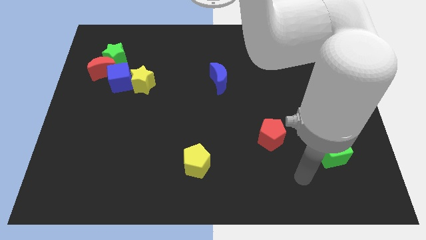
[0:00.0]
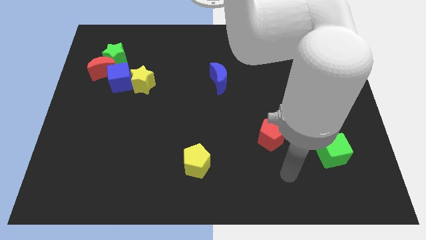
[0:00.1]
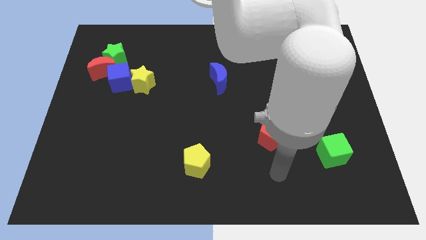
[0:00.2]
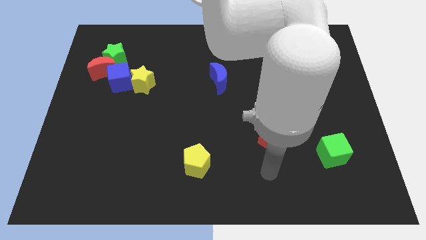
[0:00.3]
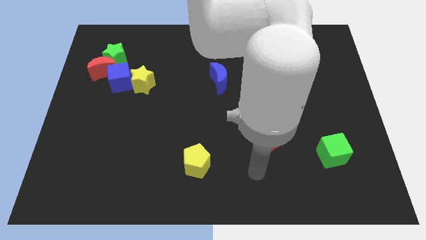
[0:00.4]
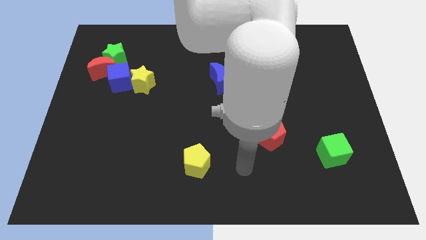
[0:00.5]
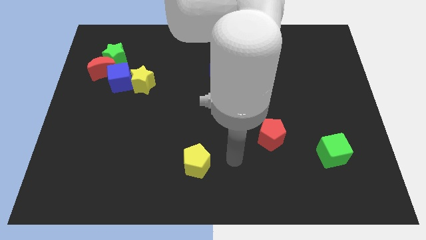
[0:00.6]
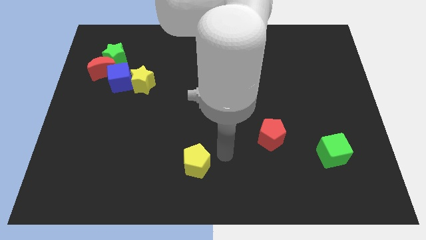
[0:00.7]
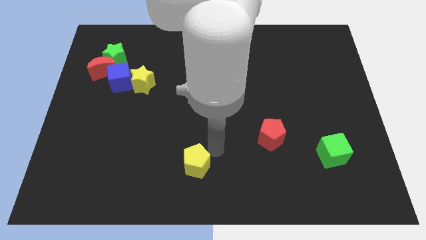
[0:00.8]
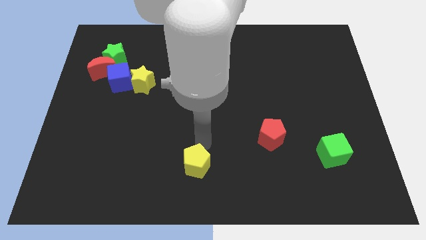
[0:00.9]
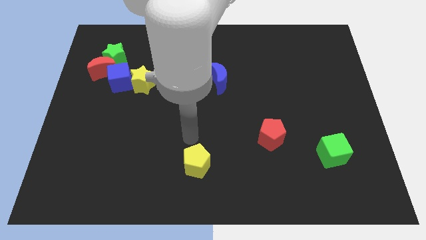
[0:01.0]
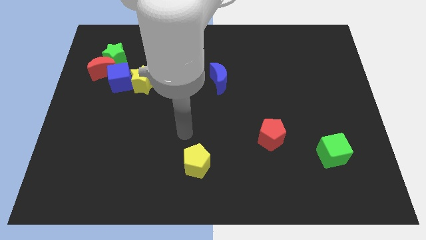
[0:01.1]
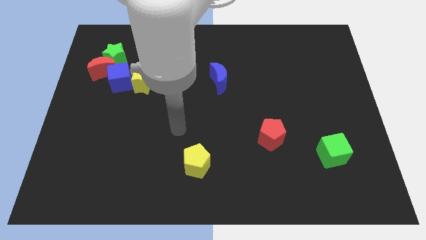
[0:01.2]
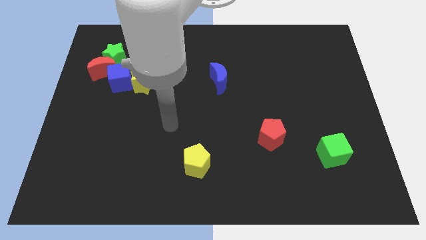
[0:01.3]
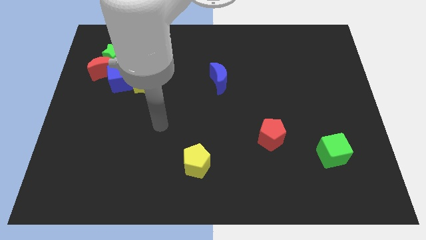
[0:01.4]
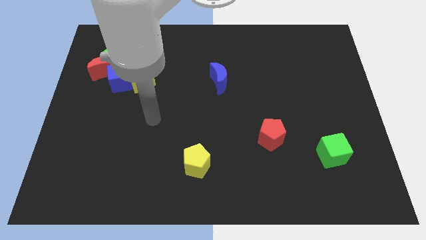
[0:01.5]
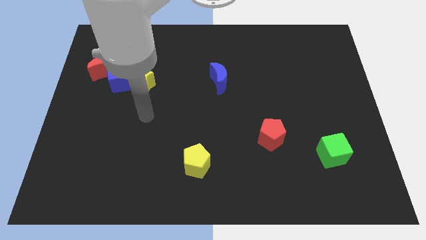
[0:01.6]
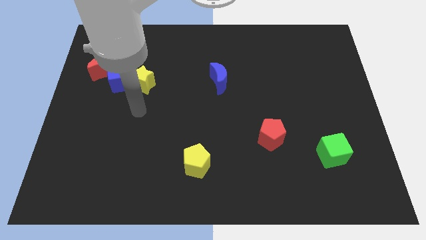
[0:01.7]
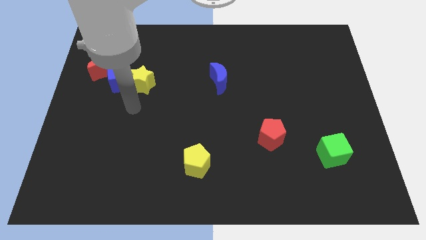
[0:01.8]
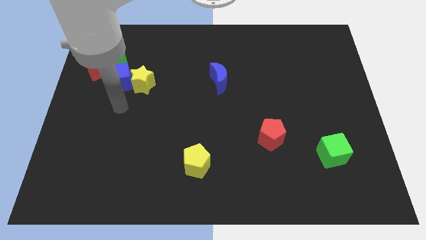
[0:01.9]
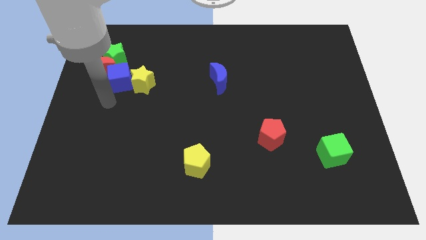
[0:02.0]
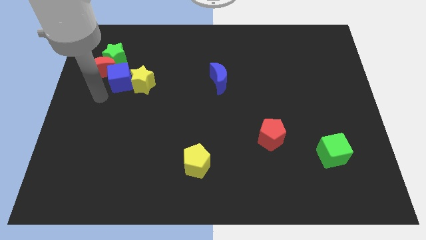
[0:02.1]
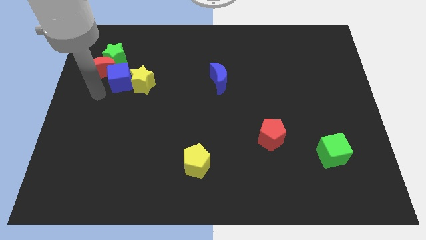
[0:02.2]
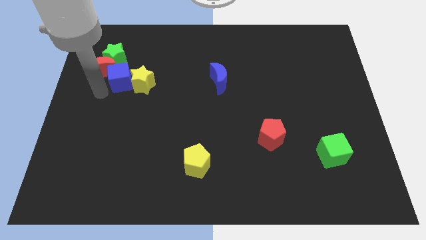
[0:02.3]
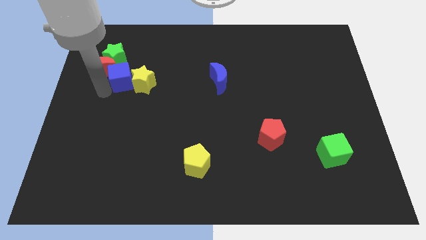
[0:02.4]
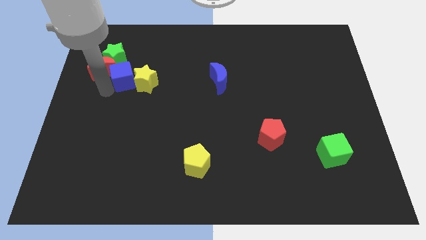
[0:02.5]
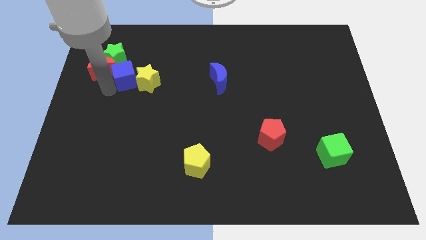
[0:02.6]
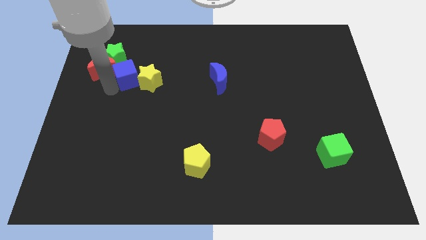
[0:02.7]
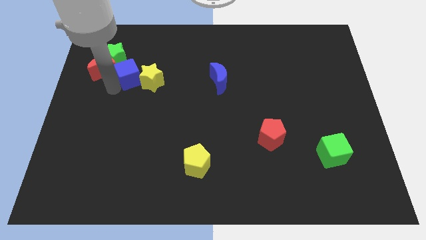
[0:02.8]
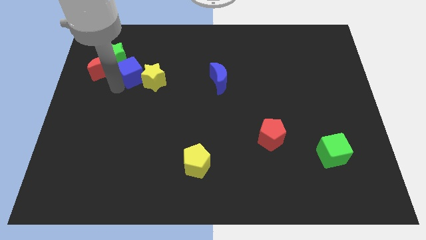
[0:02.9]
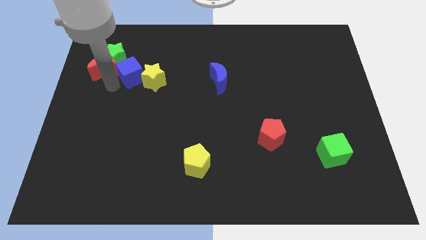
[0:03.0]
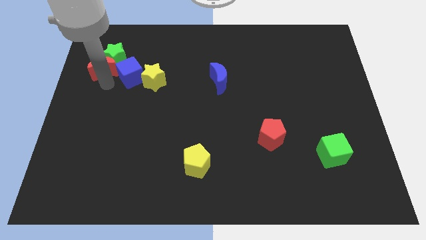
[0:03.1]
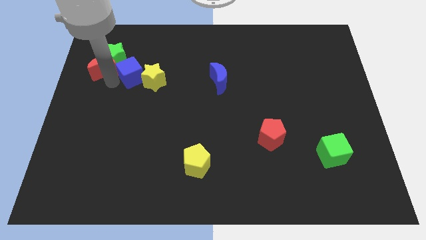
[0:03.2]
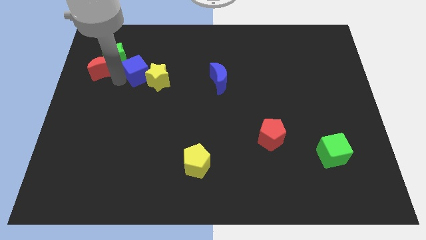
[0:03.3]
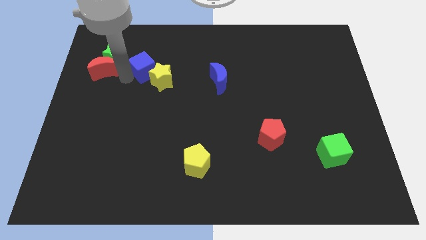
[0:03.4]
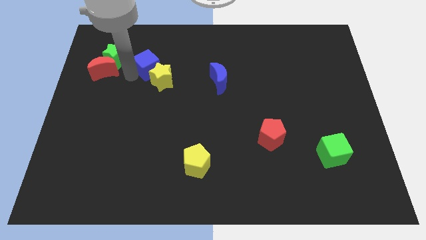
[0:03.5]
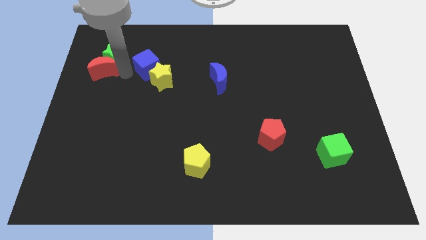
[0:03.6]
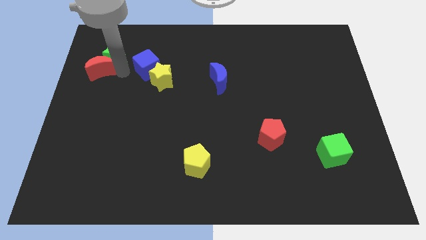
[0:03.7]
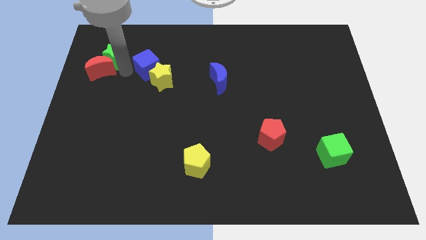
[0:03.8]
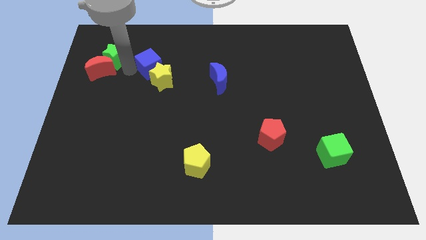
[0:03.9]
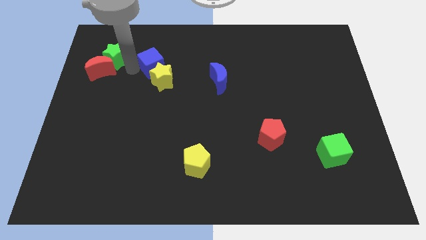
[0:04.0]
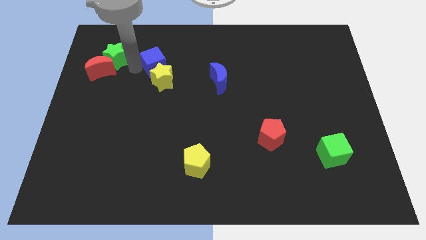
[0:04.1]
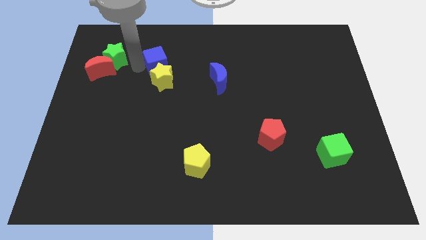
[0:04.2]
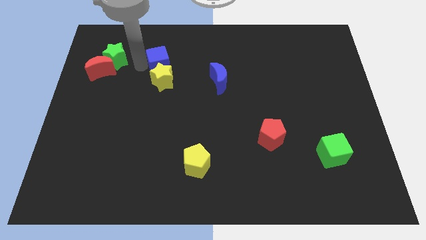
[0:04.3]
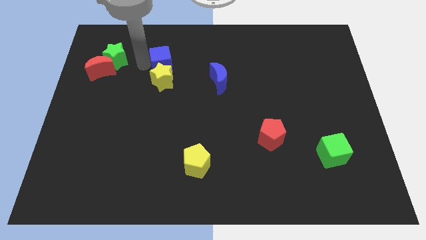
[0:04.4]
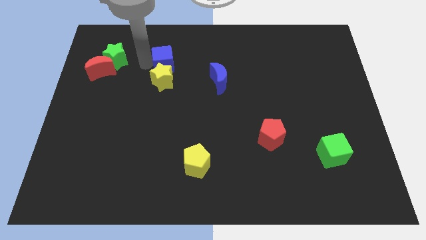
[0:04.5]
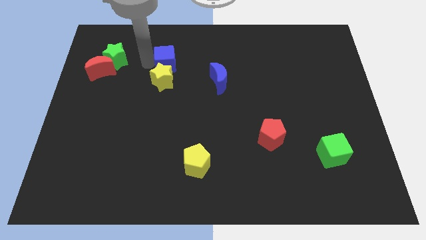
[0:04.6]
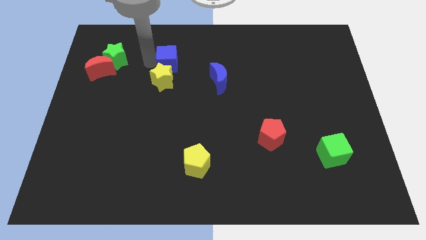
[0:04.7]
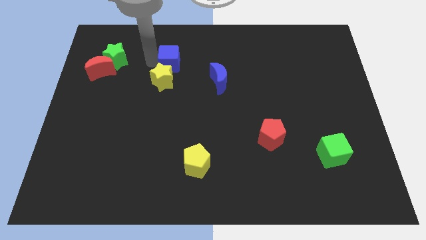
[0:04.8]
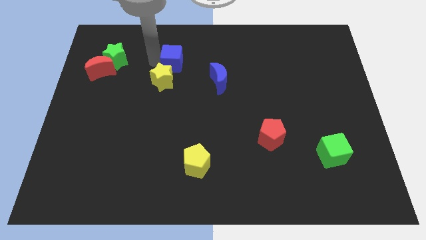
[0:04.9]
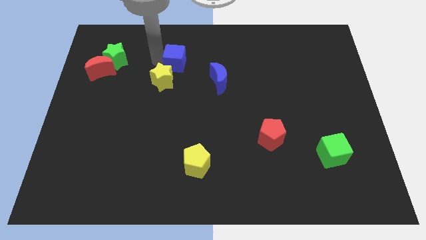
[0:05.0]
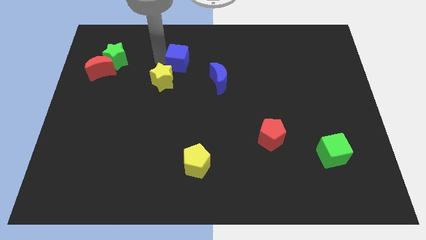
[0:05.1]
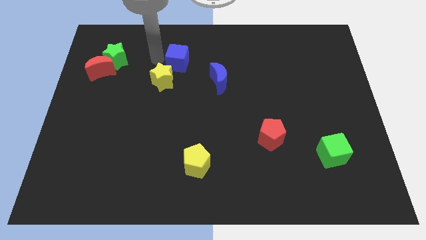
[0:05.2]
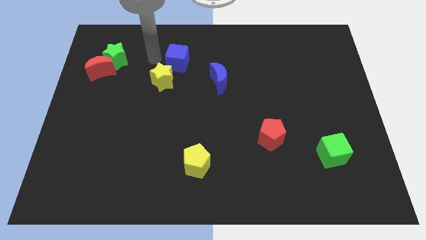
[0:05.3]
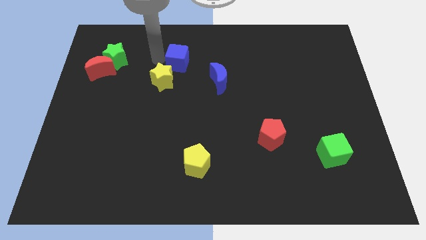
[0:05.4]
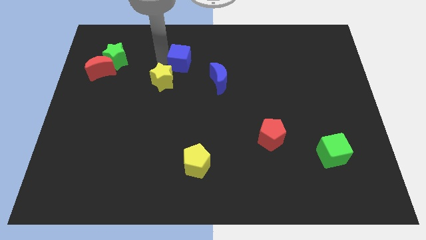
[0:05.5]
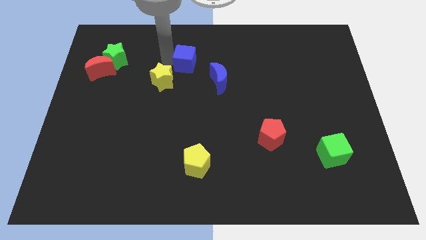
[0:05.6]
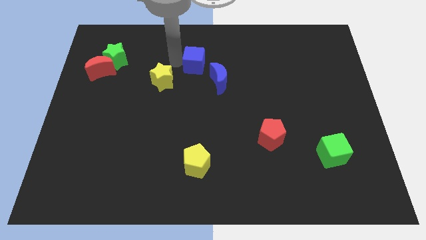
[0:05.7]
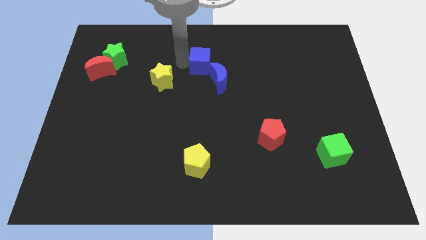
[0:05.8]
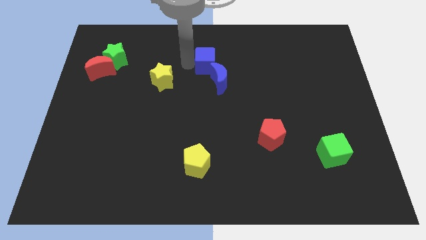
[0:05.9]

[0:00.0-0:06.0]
move the blue cube right

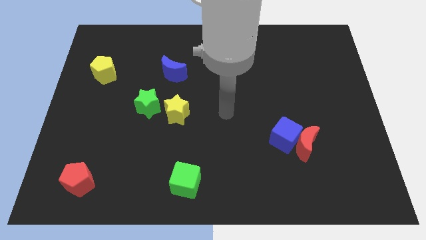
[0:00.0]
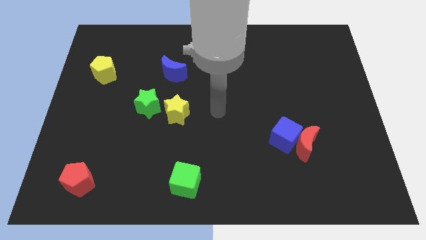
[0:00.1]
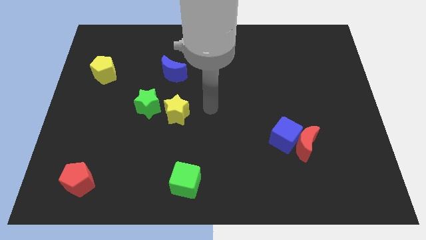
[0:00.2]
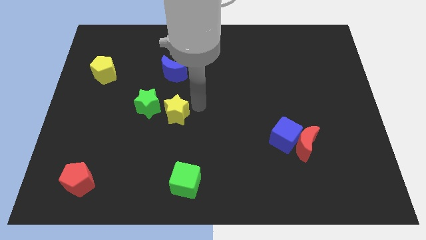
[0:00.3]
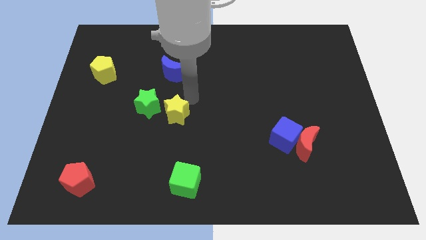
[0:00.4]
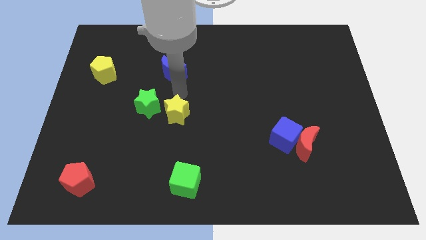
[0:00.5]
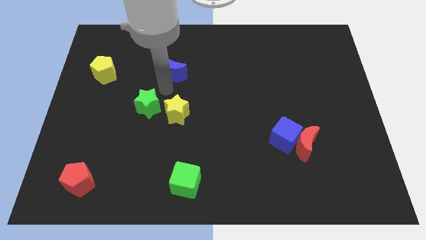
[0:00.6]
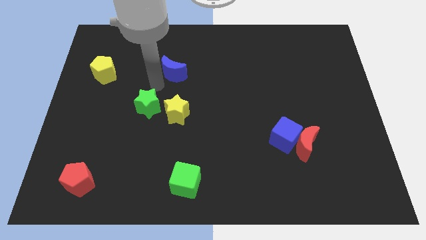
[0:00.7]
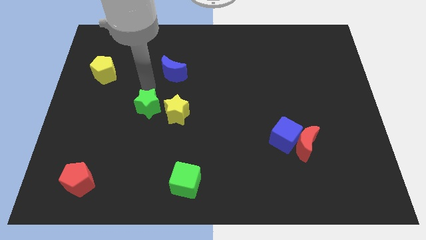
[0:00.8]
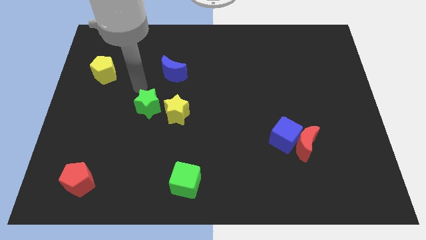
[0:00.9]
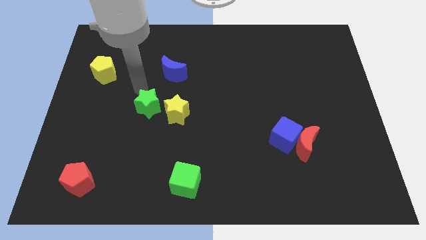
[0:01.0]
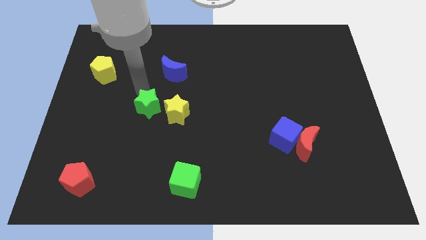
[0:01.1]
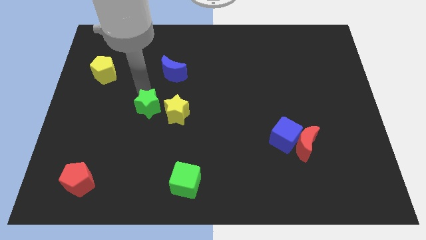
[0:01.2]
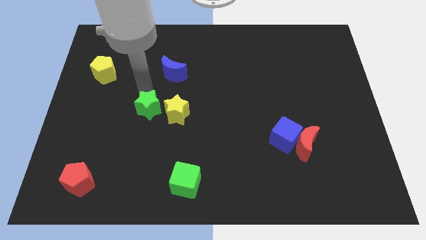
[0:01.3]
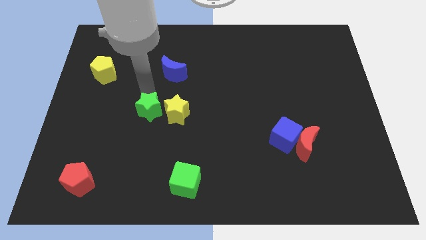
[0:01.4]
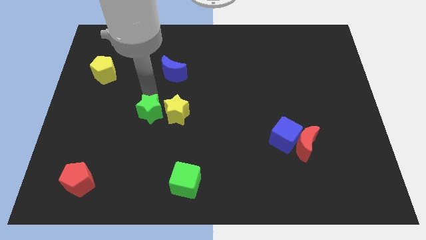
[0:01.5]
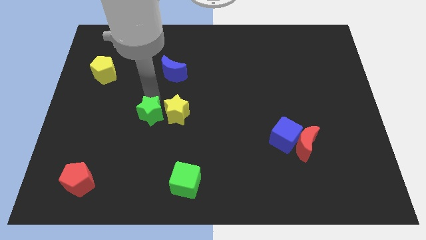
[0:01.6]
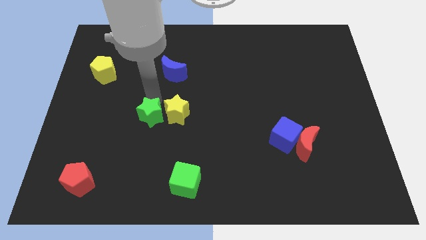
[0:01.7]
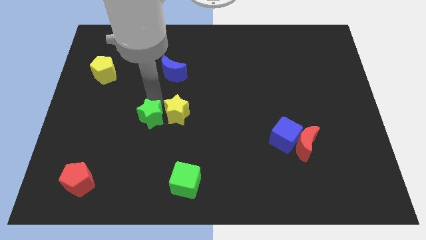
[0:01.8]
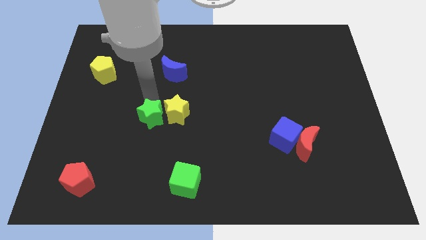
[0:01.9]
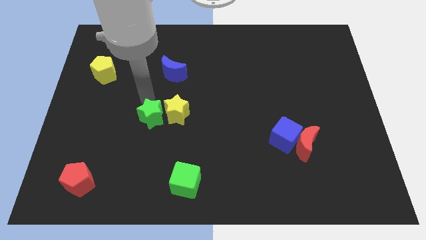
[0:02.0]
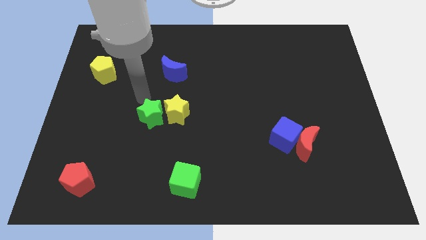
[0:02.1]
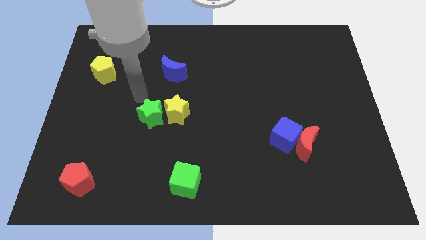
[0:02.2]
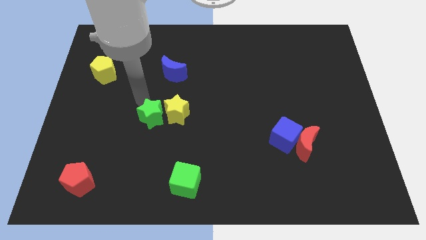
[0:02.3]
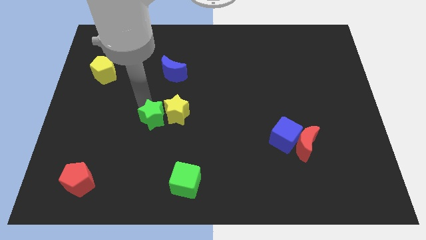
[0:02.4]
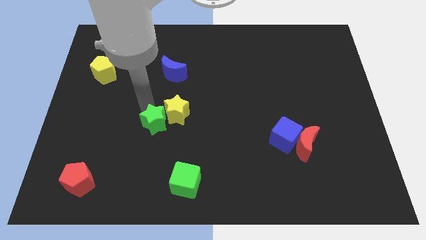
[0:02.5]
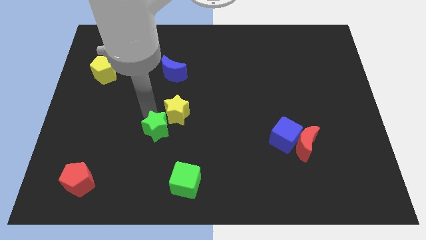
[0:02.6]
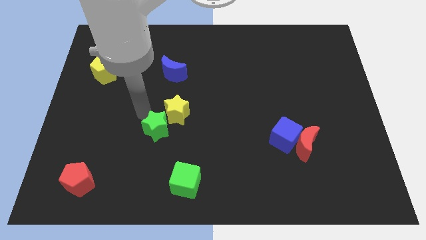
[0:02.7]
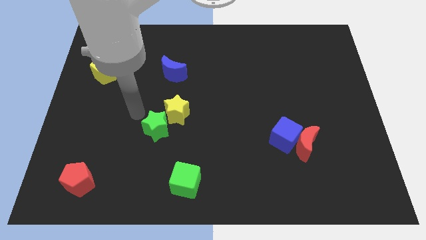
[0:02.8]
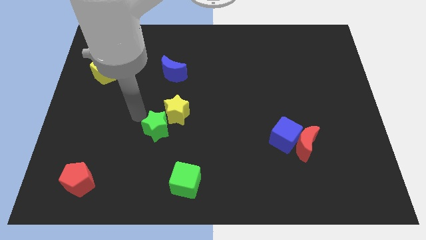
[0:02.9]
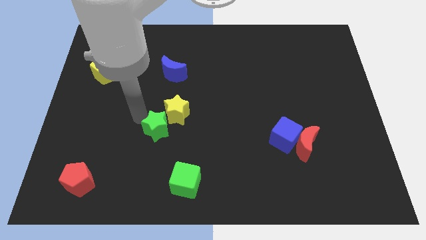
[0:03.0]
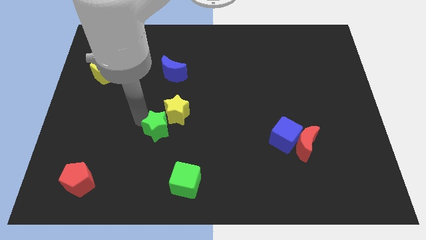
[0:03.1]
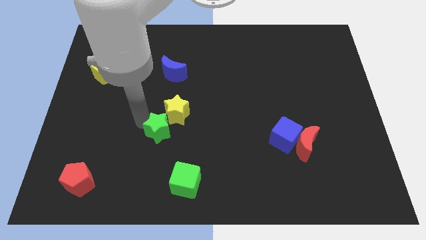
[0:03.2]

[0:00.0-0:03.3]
slightly slide the green star downwards and to the right
